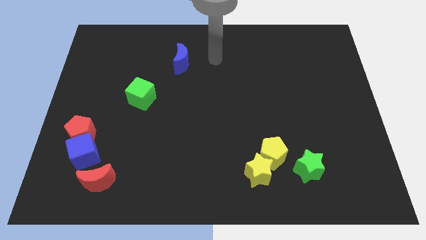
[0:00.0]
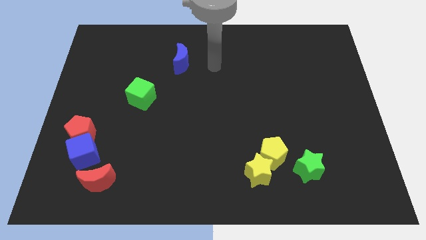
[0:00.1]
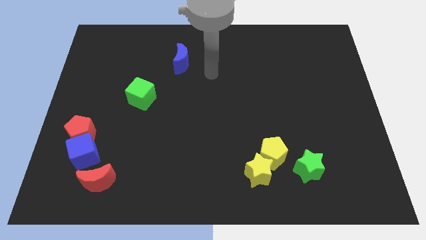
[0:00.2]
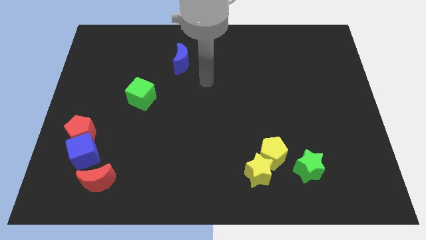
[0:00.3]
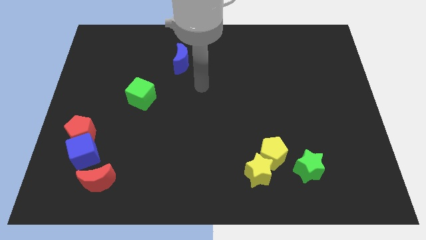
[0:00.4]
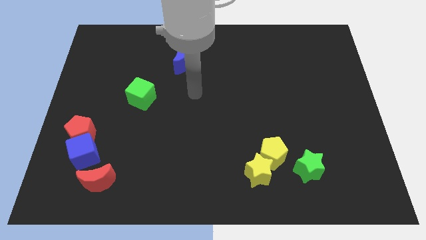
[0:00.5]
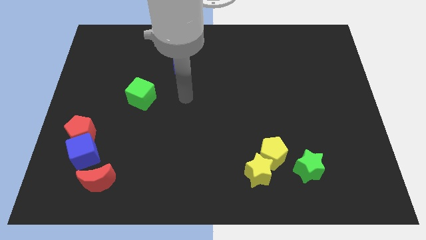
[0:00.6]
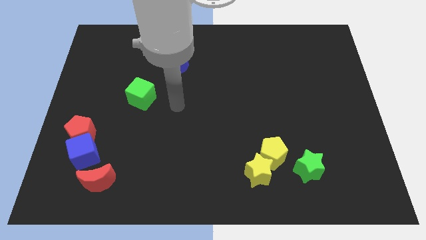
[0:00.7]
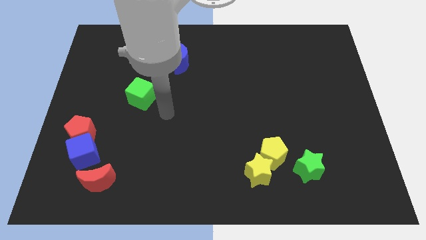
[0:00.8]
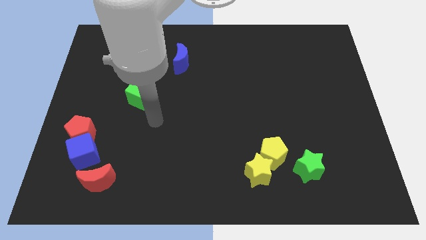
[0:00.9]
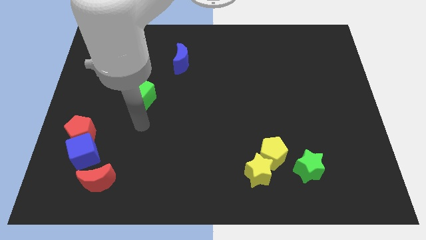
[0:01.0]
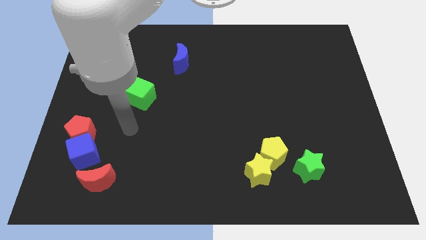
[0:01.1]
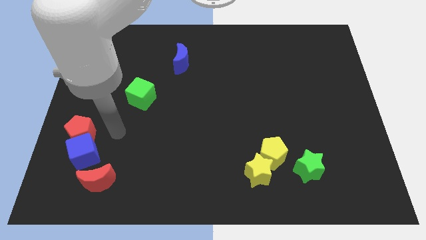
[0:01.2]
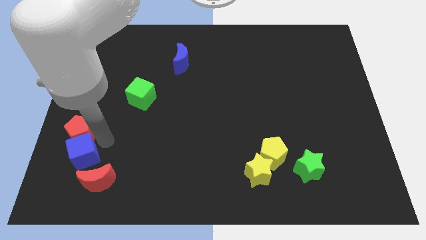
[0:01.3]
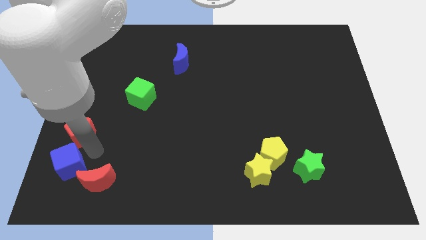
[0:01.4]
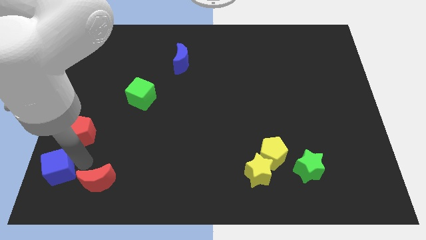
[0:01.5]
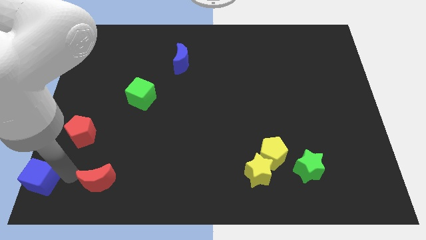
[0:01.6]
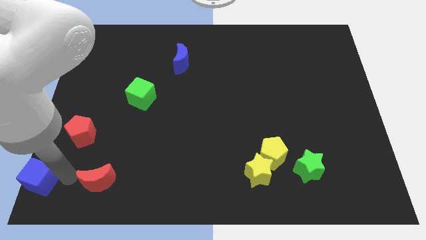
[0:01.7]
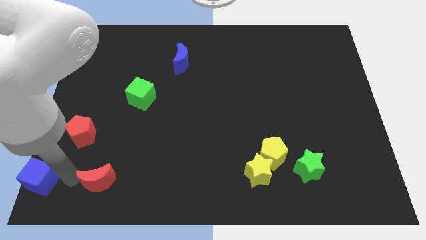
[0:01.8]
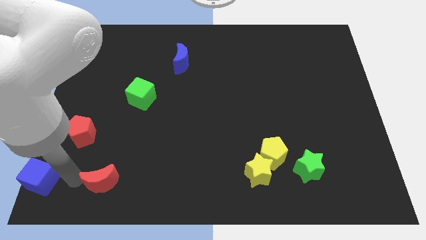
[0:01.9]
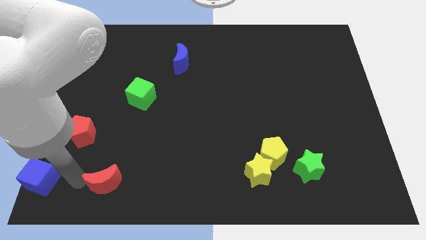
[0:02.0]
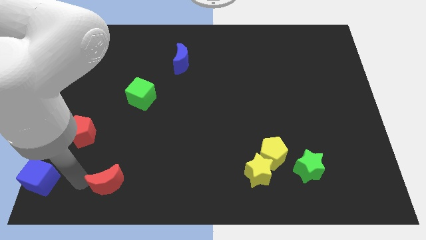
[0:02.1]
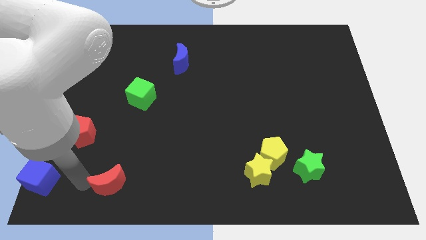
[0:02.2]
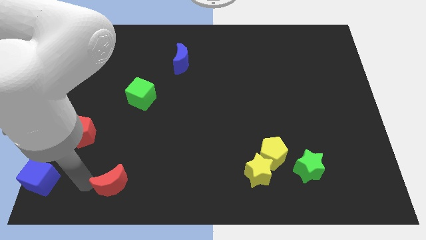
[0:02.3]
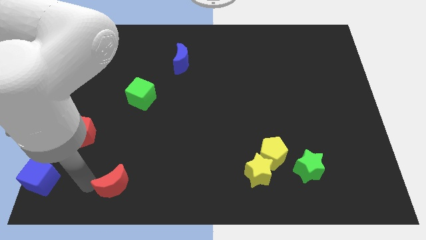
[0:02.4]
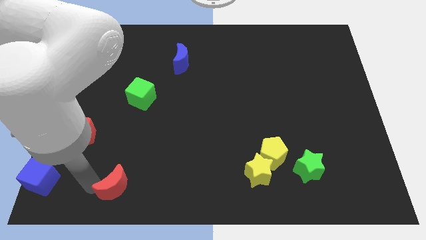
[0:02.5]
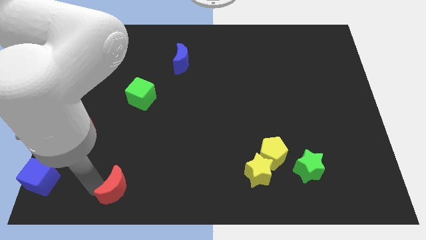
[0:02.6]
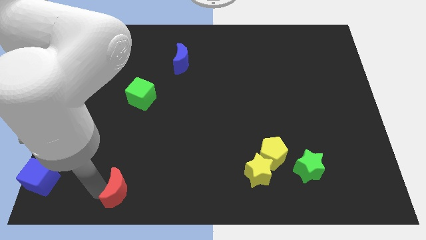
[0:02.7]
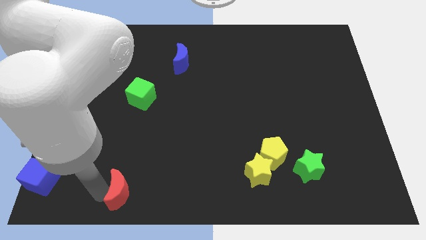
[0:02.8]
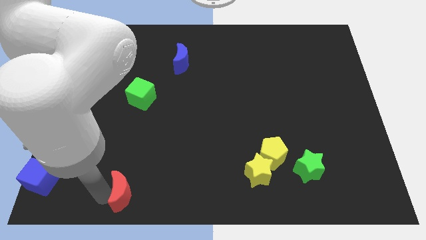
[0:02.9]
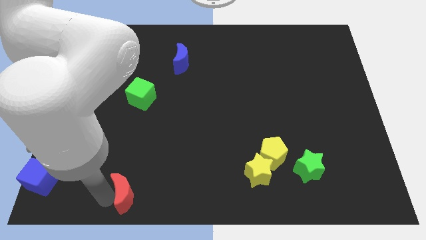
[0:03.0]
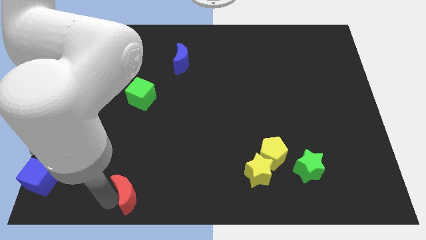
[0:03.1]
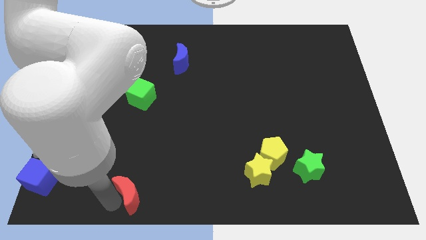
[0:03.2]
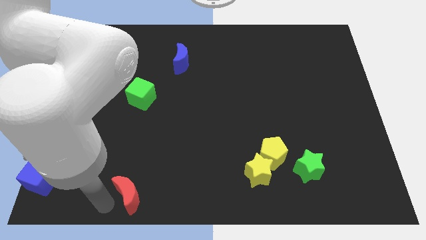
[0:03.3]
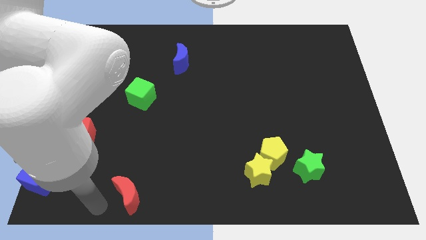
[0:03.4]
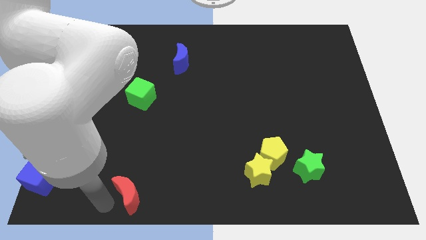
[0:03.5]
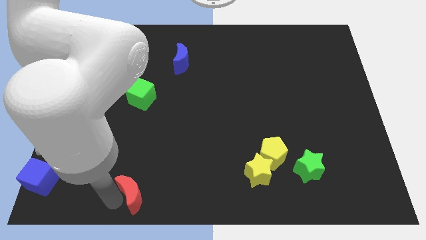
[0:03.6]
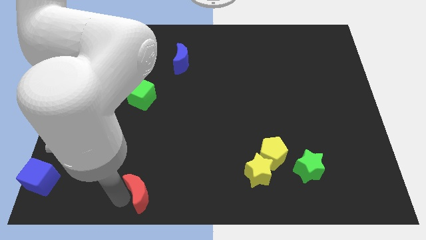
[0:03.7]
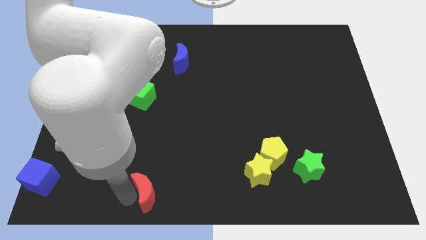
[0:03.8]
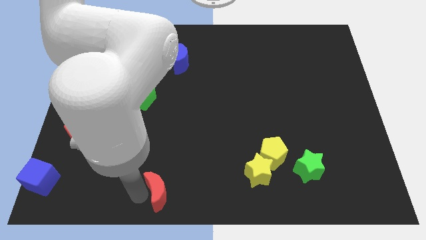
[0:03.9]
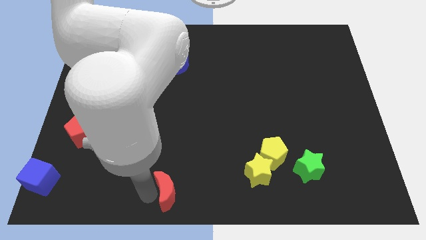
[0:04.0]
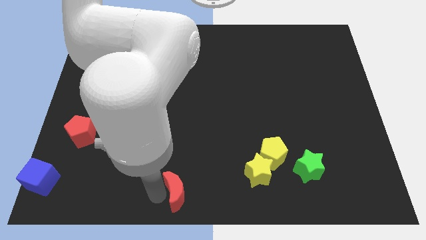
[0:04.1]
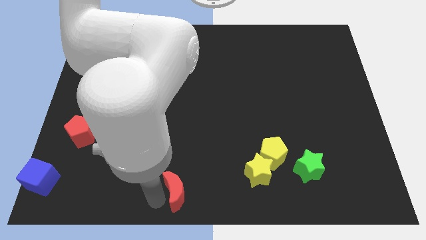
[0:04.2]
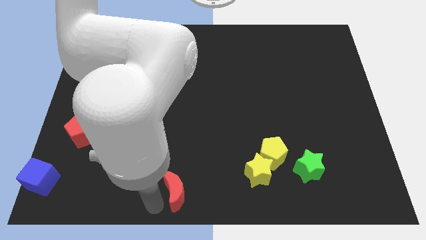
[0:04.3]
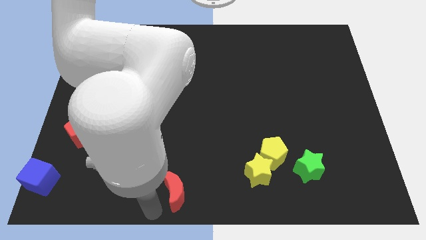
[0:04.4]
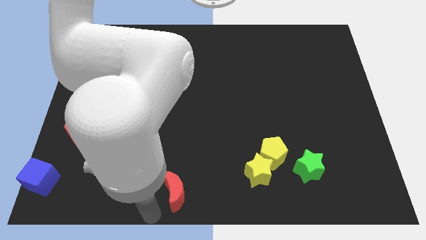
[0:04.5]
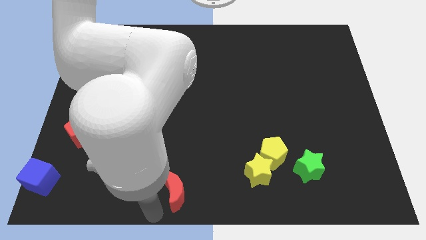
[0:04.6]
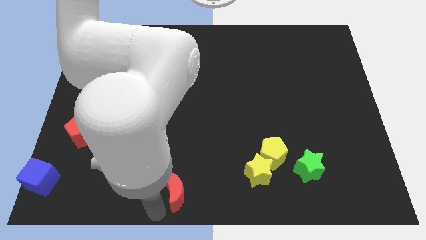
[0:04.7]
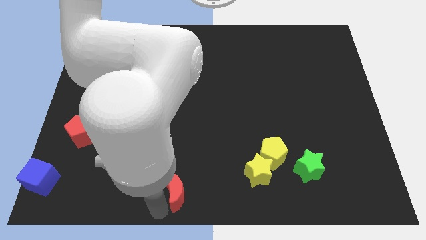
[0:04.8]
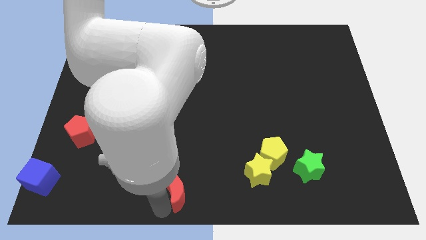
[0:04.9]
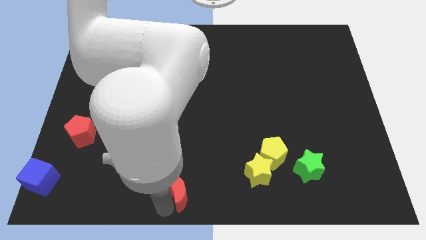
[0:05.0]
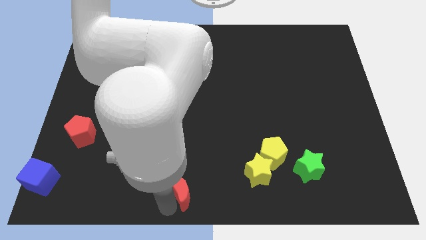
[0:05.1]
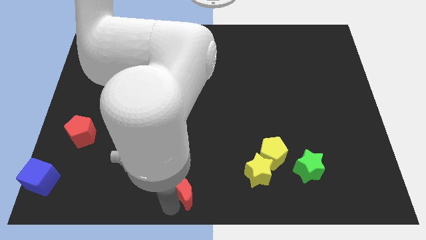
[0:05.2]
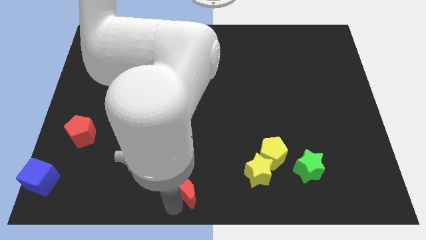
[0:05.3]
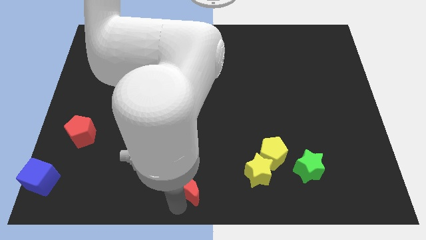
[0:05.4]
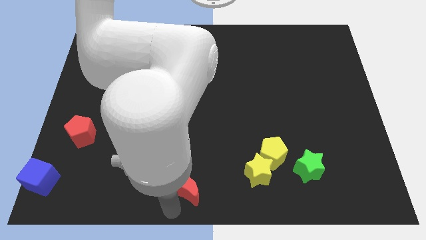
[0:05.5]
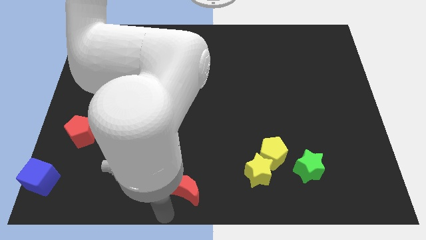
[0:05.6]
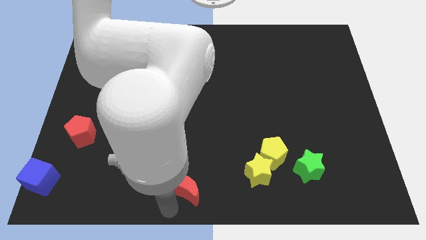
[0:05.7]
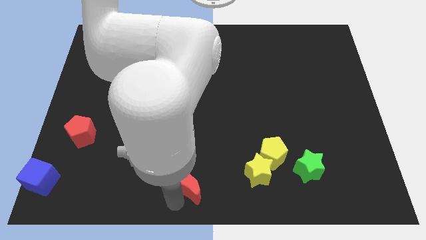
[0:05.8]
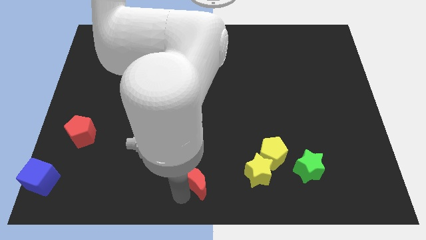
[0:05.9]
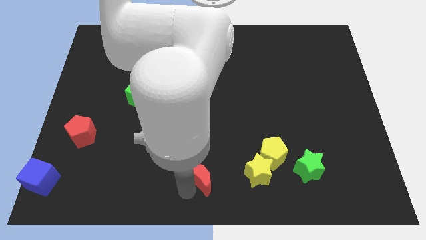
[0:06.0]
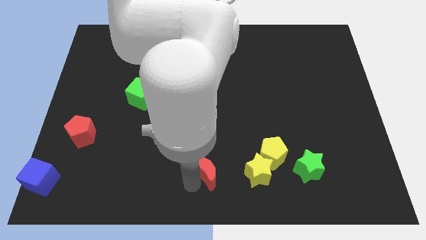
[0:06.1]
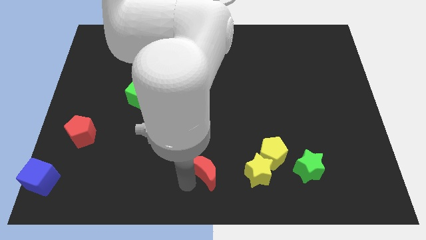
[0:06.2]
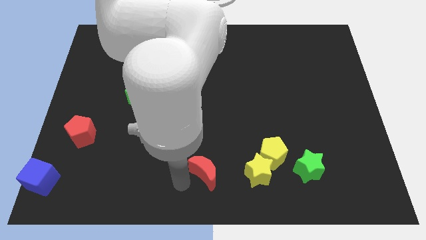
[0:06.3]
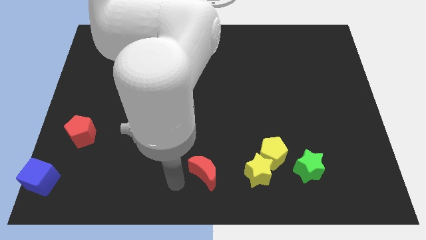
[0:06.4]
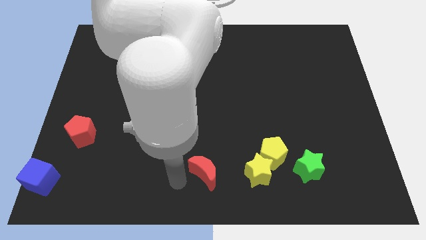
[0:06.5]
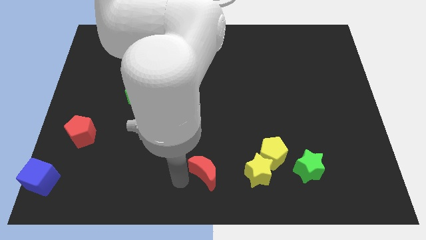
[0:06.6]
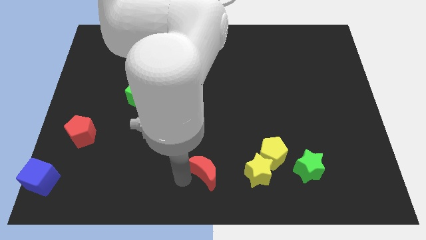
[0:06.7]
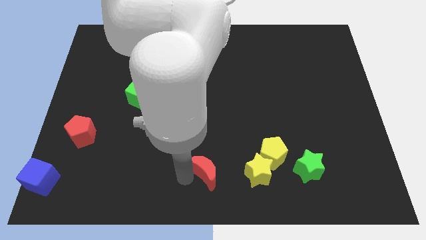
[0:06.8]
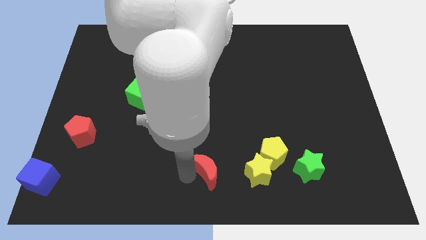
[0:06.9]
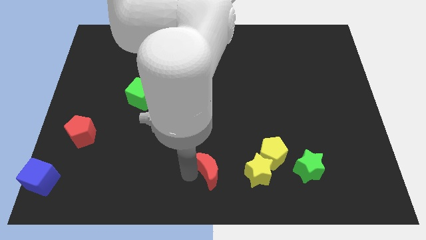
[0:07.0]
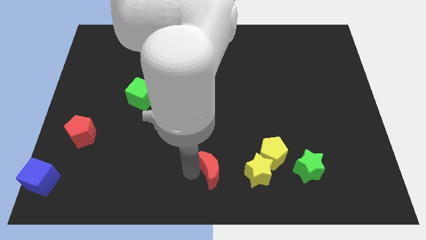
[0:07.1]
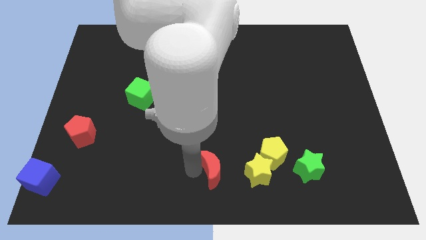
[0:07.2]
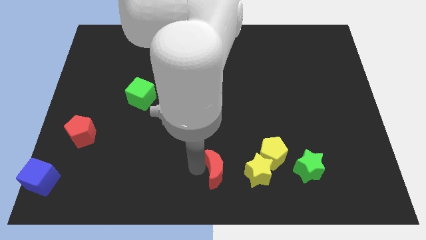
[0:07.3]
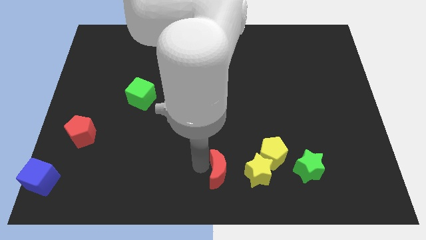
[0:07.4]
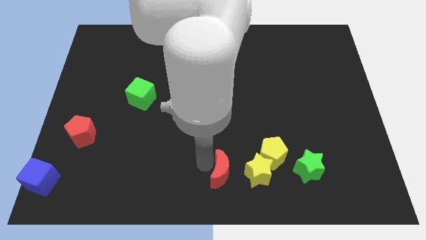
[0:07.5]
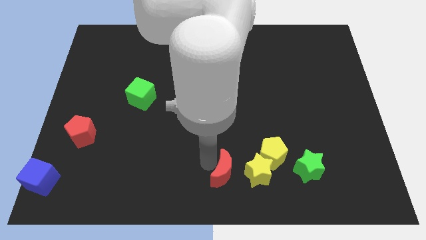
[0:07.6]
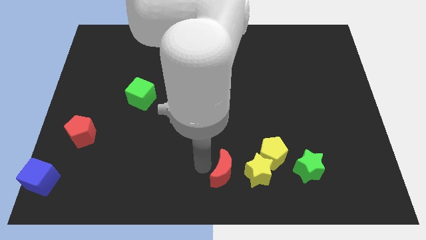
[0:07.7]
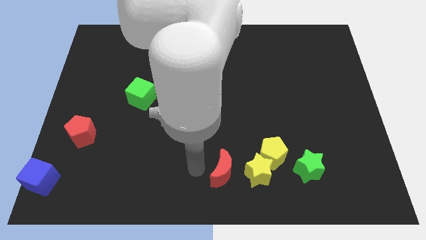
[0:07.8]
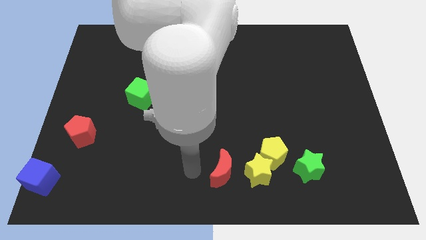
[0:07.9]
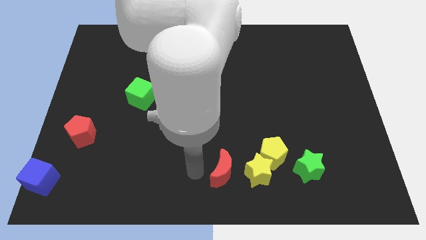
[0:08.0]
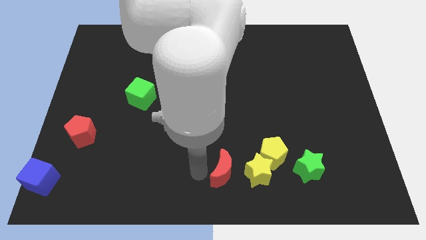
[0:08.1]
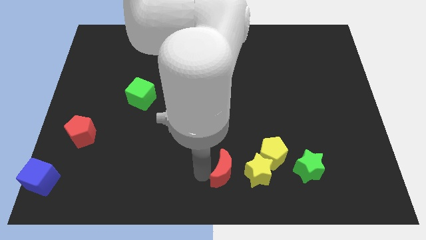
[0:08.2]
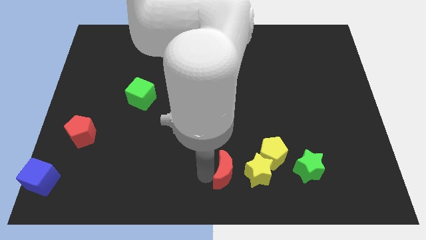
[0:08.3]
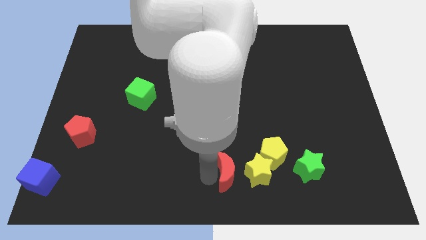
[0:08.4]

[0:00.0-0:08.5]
move the red moon close to the yellow star
